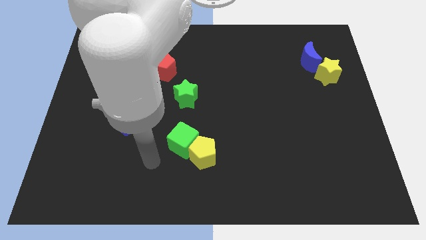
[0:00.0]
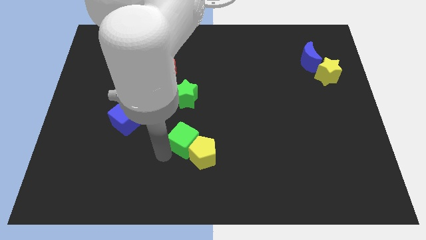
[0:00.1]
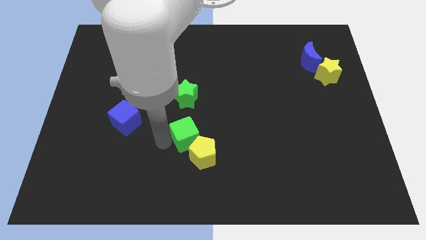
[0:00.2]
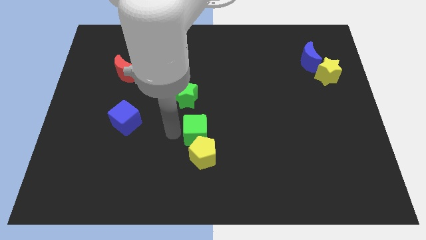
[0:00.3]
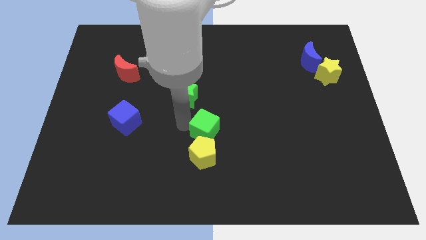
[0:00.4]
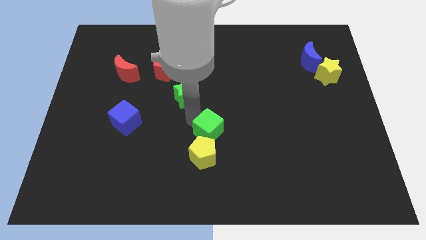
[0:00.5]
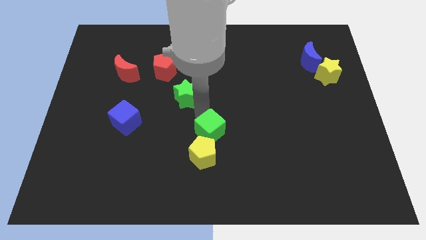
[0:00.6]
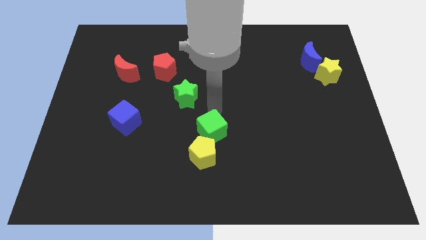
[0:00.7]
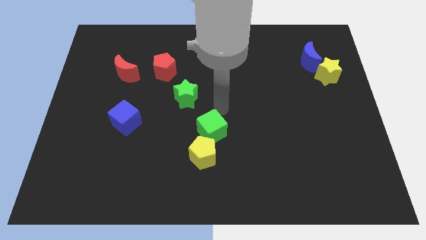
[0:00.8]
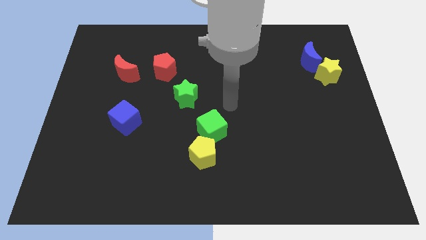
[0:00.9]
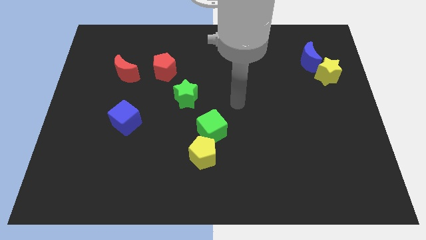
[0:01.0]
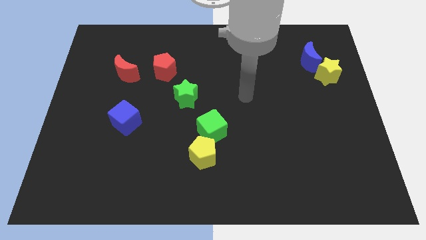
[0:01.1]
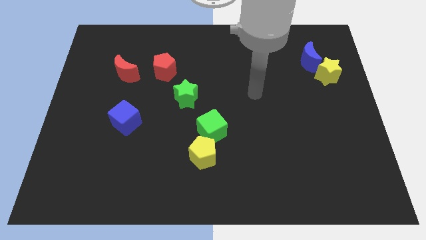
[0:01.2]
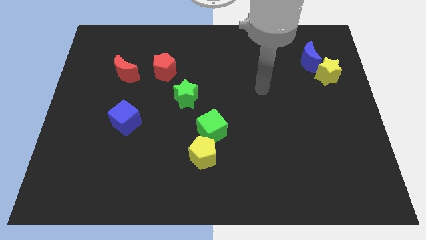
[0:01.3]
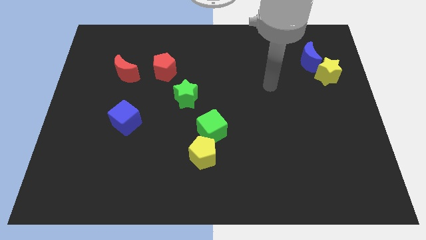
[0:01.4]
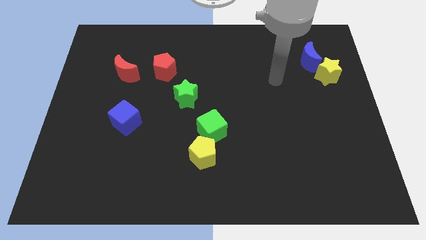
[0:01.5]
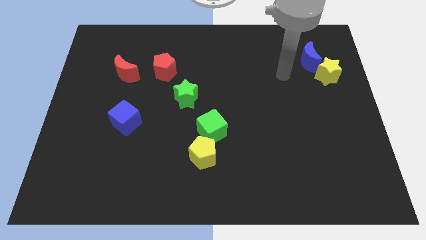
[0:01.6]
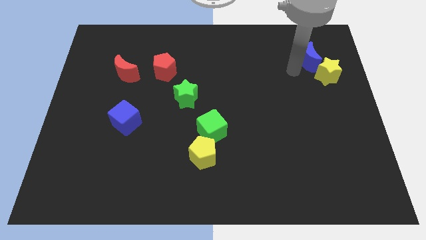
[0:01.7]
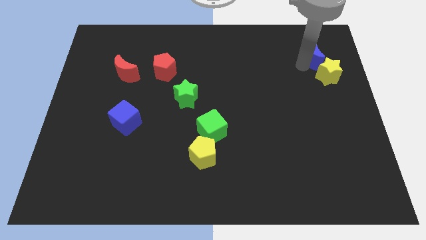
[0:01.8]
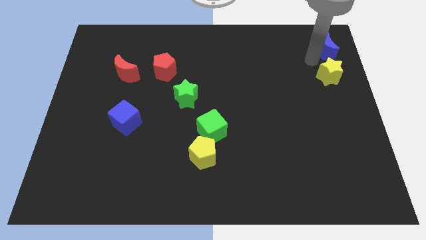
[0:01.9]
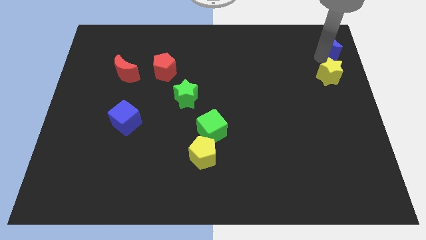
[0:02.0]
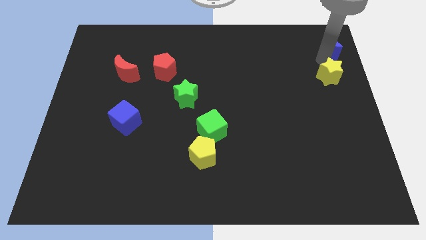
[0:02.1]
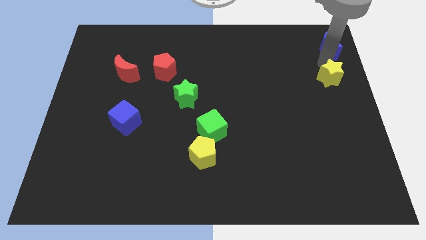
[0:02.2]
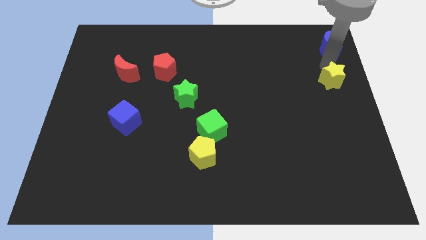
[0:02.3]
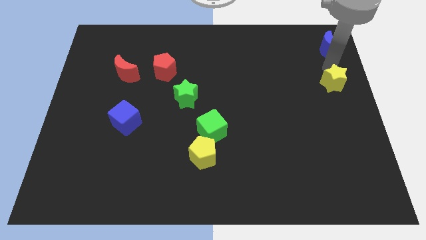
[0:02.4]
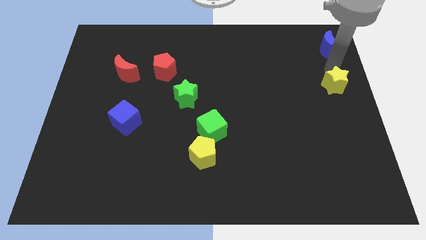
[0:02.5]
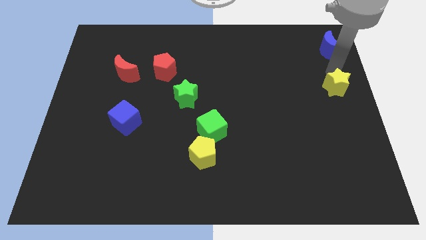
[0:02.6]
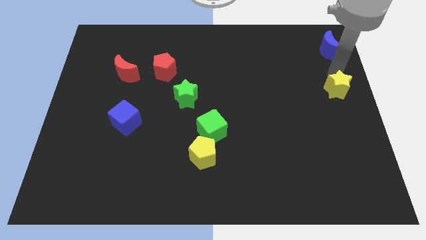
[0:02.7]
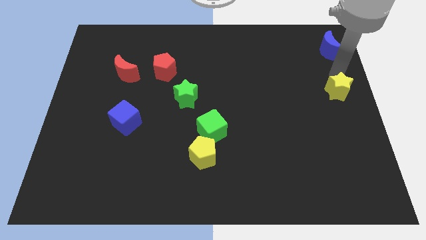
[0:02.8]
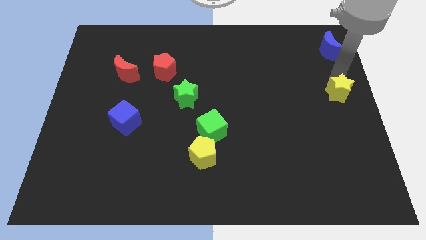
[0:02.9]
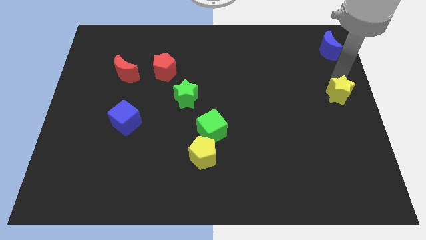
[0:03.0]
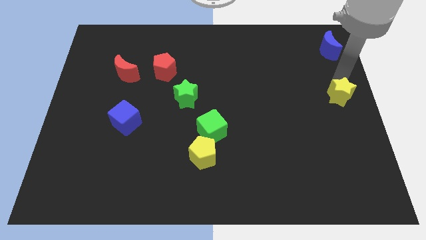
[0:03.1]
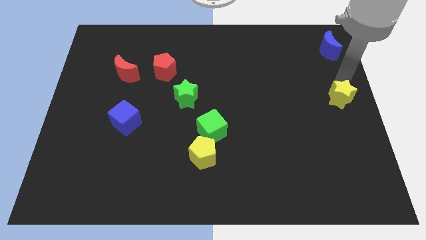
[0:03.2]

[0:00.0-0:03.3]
slide the yellow star a bit down

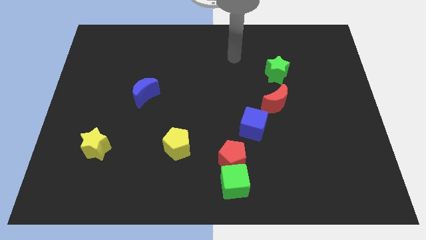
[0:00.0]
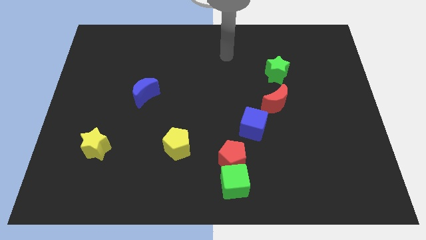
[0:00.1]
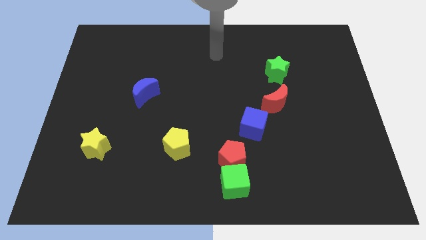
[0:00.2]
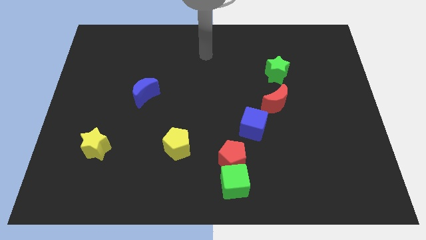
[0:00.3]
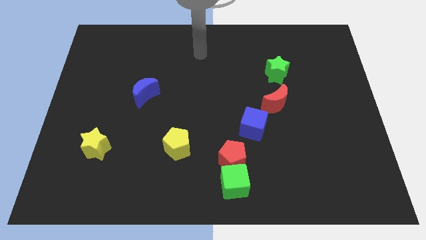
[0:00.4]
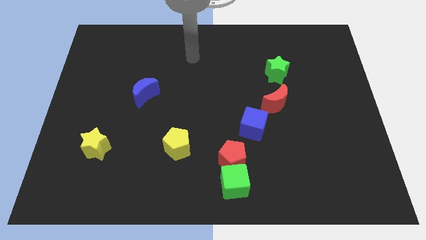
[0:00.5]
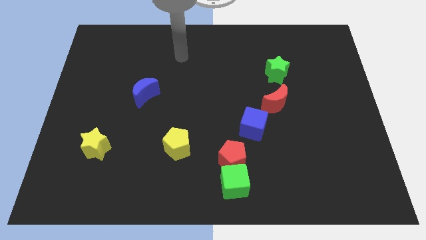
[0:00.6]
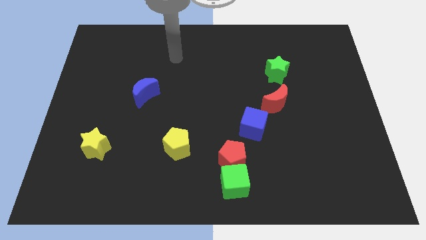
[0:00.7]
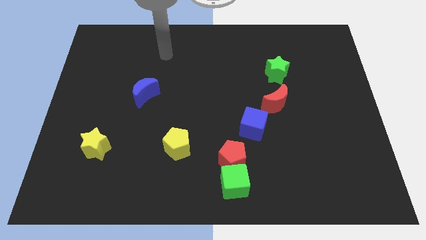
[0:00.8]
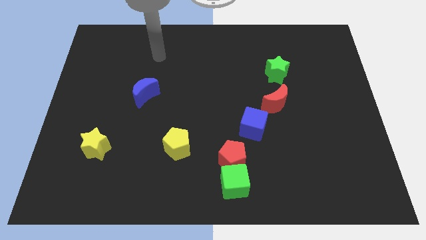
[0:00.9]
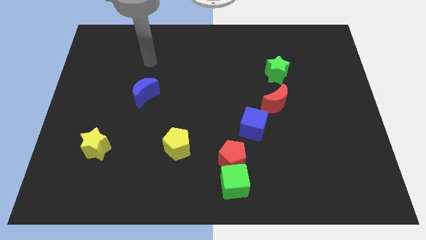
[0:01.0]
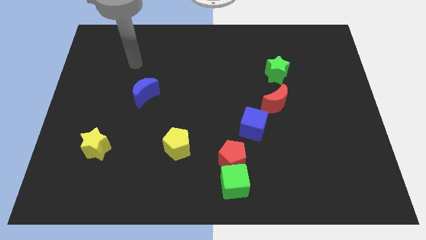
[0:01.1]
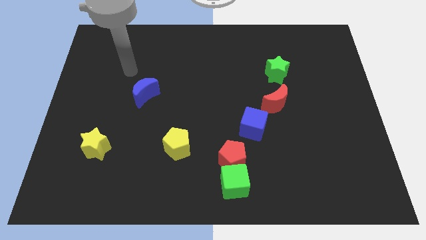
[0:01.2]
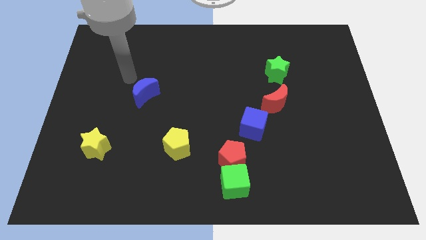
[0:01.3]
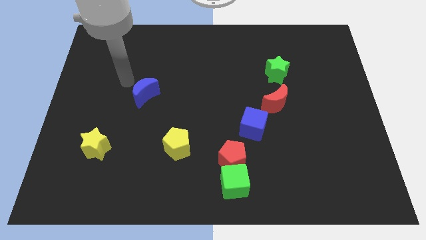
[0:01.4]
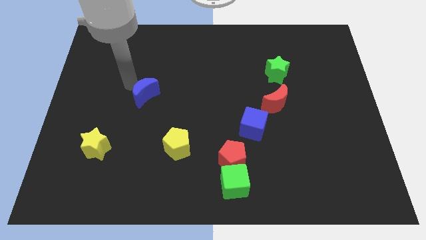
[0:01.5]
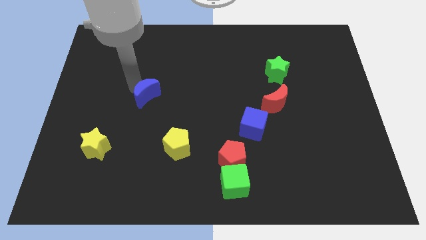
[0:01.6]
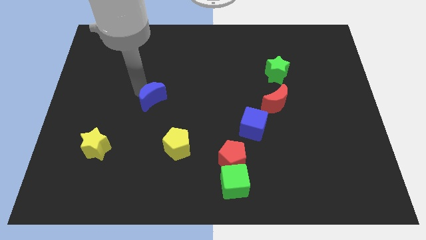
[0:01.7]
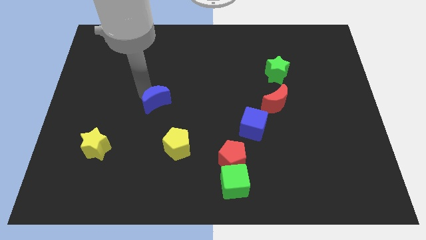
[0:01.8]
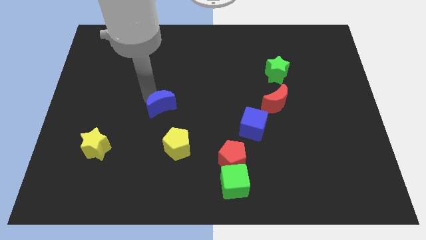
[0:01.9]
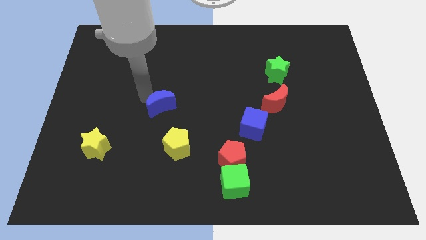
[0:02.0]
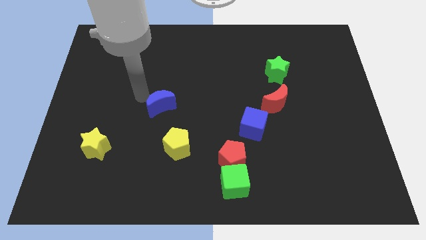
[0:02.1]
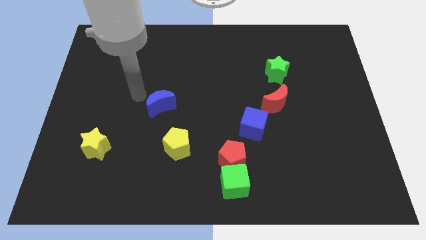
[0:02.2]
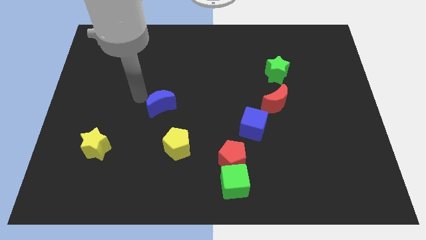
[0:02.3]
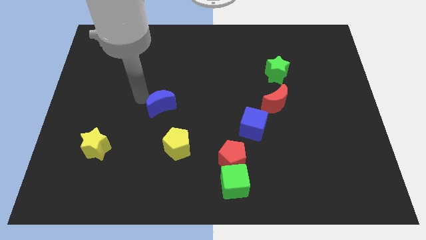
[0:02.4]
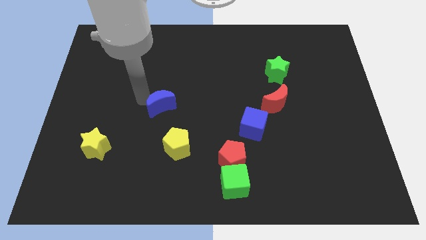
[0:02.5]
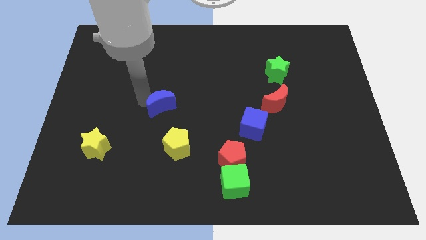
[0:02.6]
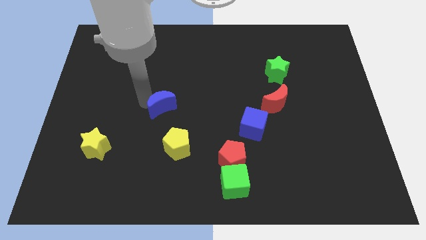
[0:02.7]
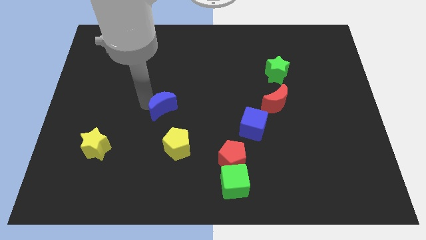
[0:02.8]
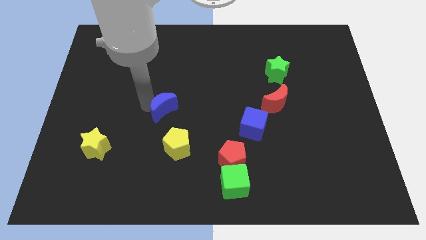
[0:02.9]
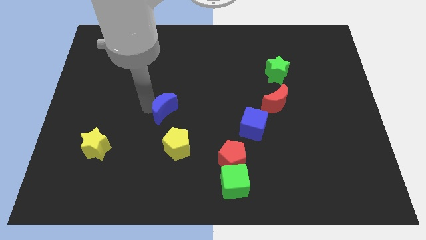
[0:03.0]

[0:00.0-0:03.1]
slide the blue moon somewhat down and to the right diagonally

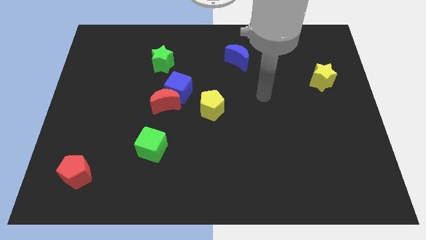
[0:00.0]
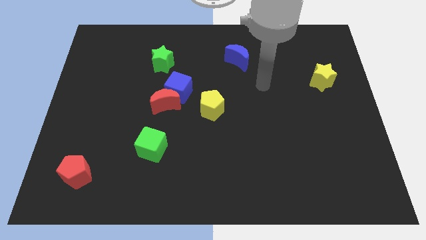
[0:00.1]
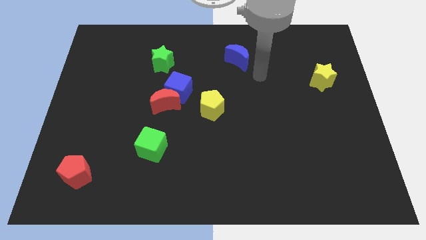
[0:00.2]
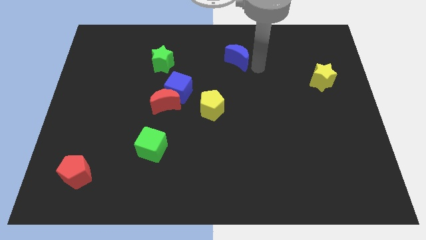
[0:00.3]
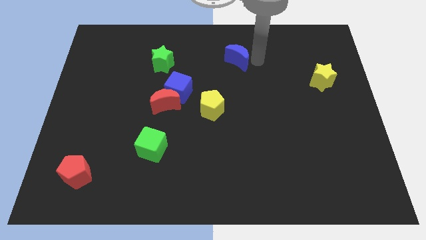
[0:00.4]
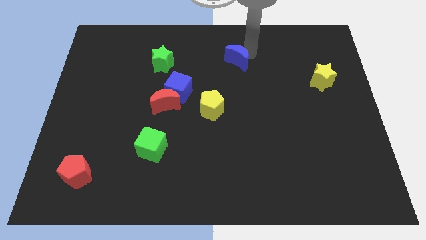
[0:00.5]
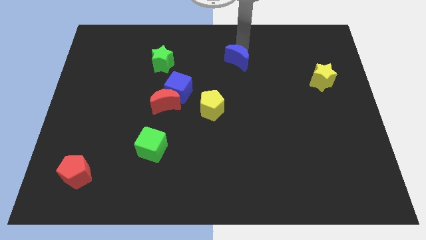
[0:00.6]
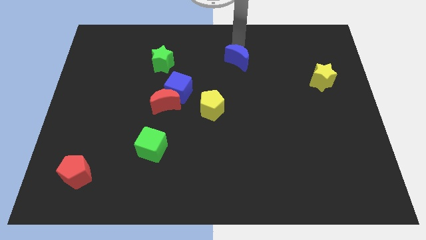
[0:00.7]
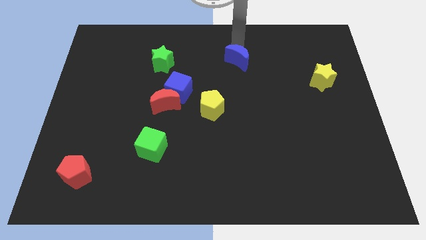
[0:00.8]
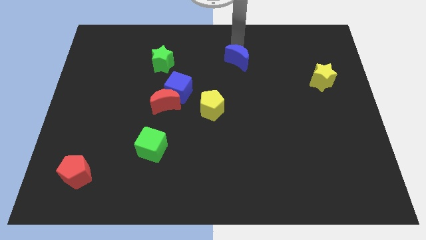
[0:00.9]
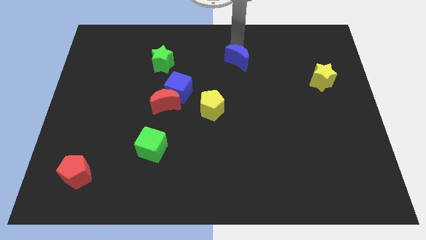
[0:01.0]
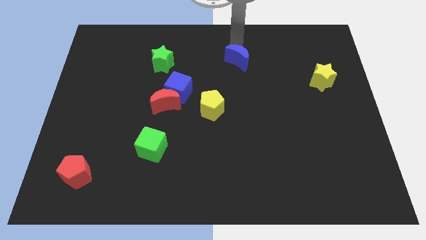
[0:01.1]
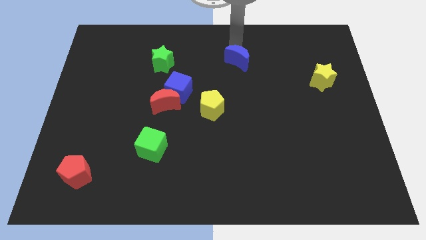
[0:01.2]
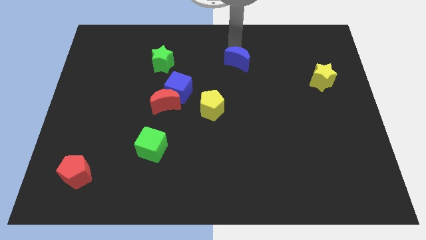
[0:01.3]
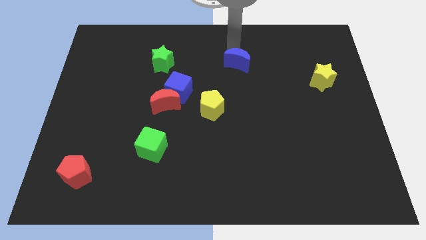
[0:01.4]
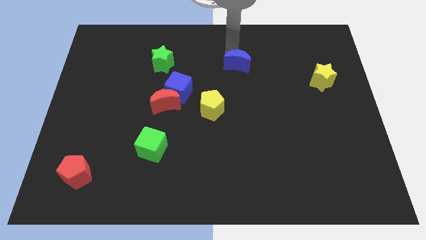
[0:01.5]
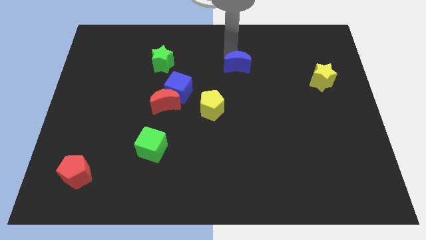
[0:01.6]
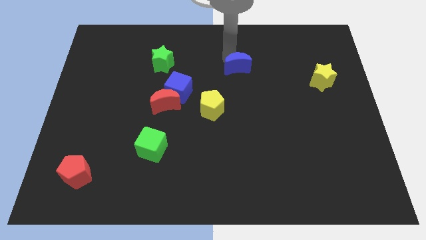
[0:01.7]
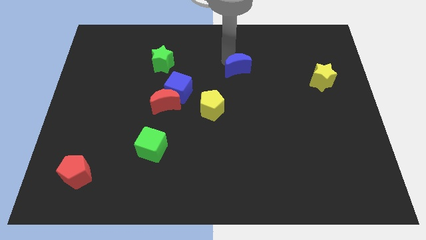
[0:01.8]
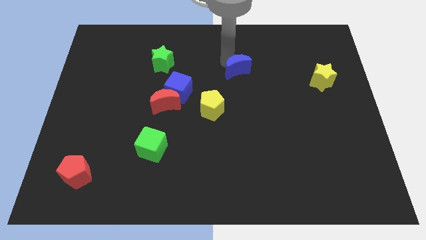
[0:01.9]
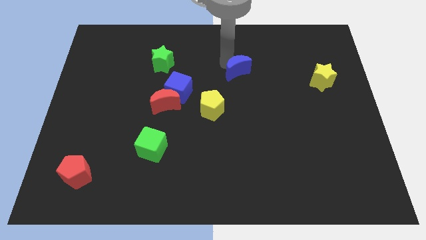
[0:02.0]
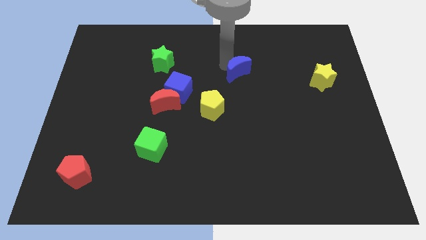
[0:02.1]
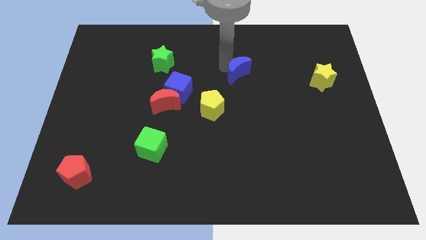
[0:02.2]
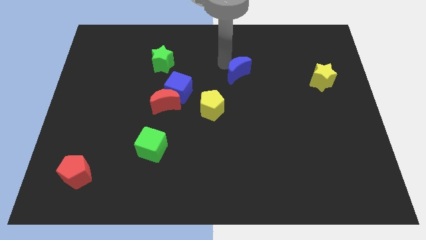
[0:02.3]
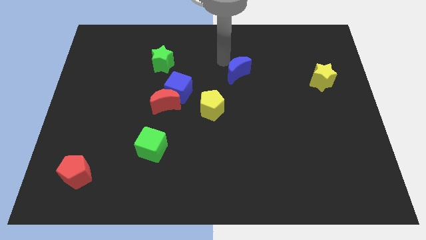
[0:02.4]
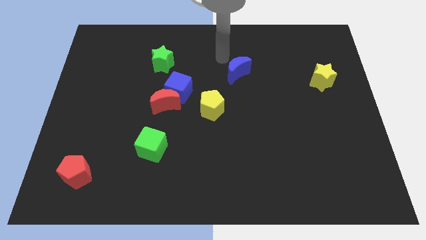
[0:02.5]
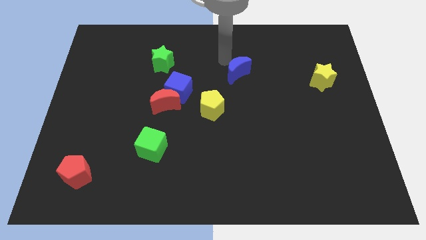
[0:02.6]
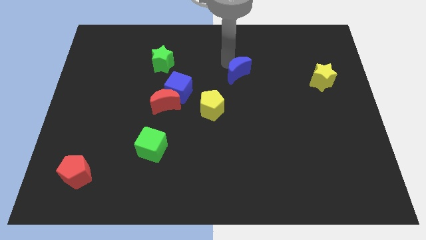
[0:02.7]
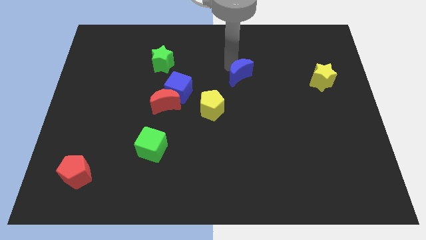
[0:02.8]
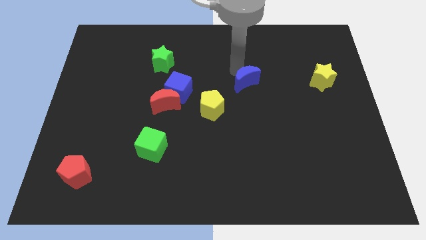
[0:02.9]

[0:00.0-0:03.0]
slightly slide the blue moon down
